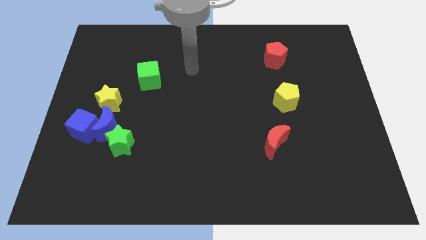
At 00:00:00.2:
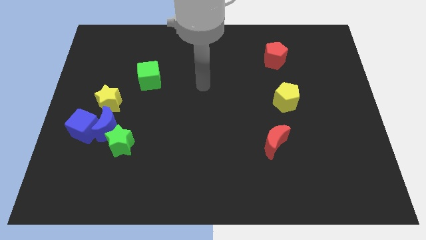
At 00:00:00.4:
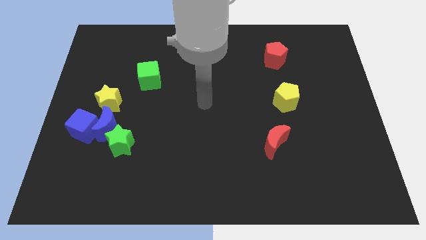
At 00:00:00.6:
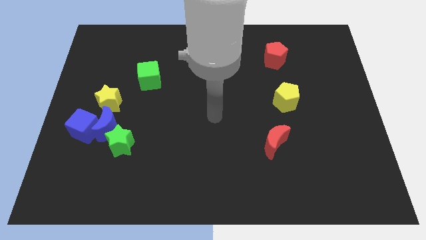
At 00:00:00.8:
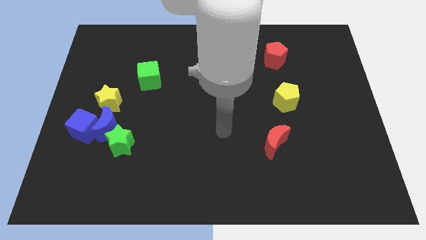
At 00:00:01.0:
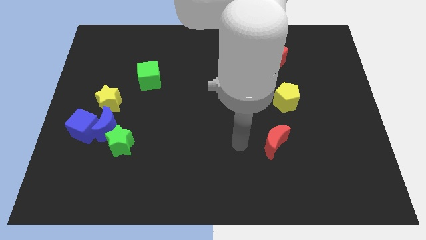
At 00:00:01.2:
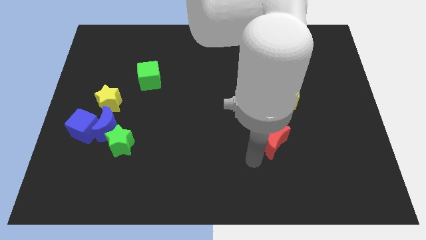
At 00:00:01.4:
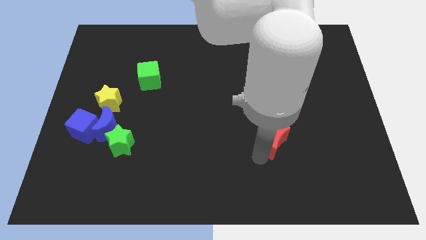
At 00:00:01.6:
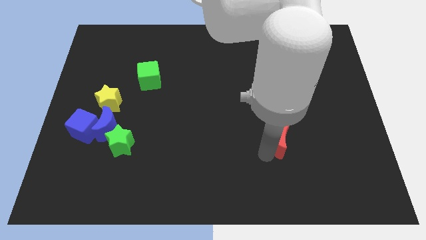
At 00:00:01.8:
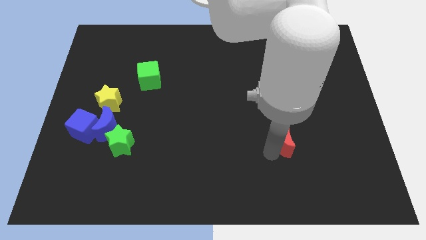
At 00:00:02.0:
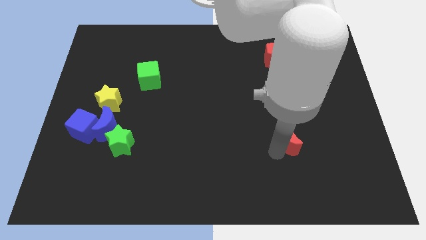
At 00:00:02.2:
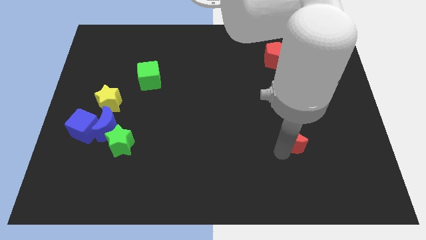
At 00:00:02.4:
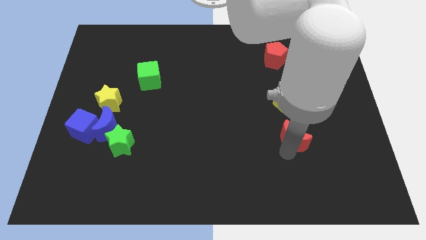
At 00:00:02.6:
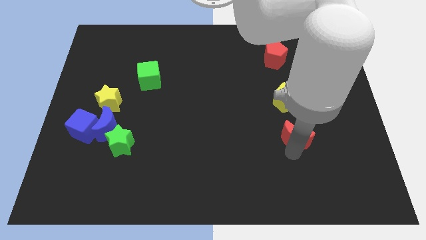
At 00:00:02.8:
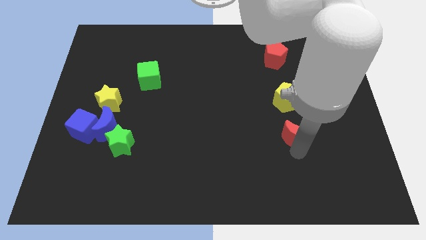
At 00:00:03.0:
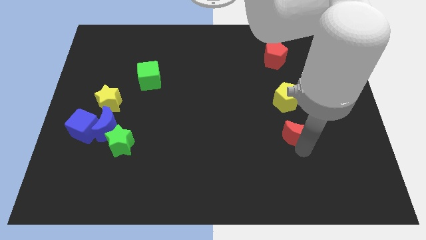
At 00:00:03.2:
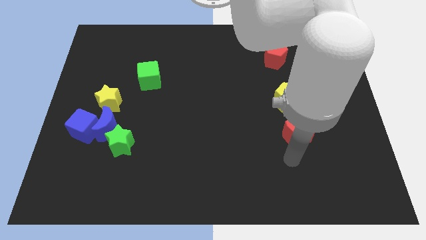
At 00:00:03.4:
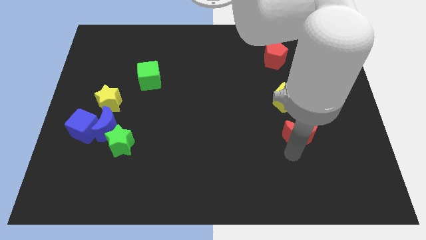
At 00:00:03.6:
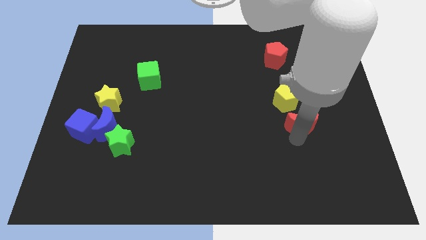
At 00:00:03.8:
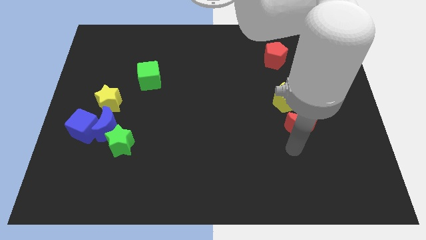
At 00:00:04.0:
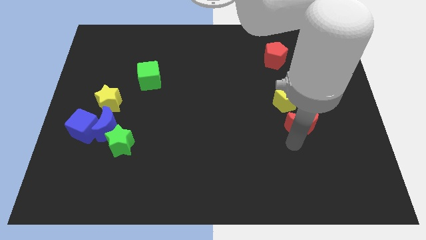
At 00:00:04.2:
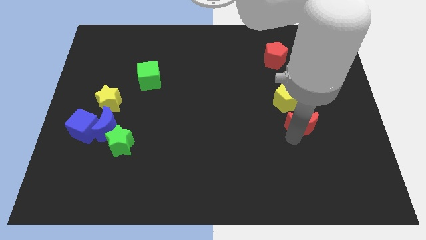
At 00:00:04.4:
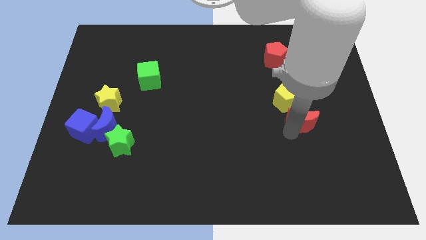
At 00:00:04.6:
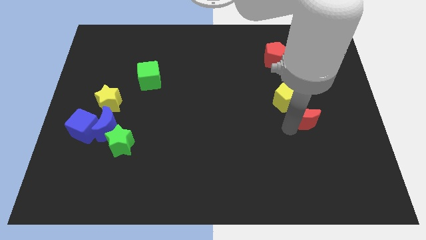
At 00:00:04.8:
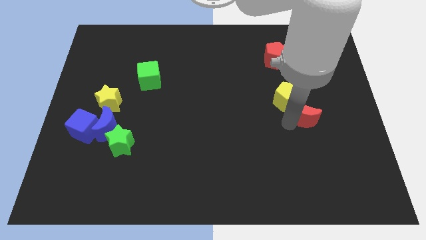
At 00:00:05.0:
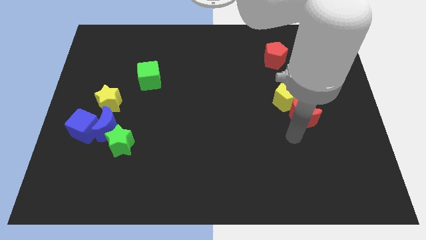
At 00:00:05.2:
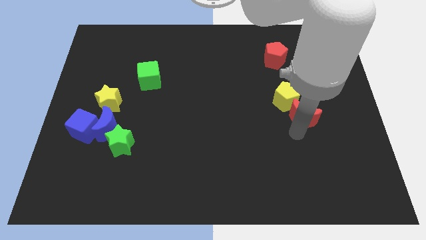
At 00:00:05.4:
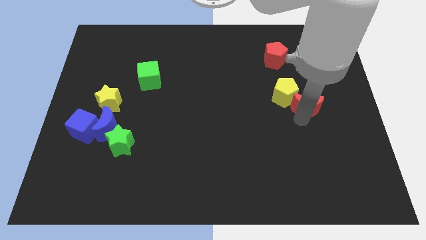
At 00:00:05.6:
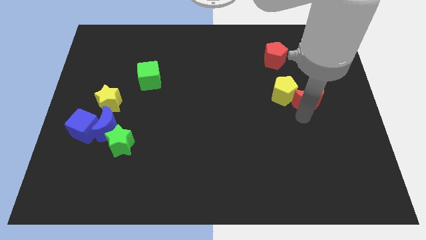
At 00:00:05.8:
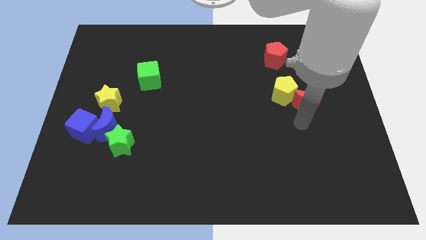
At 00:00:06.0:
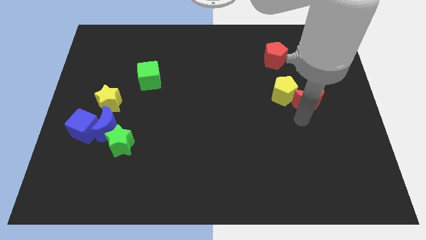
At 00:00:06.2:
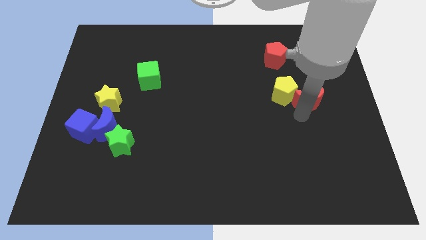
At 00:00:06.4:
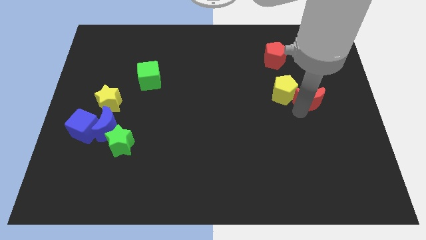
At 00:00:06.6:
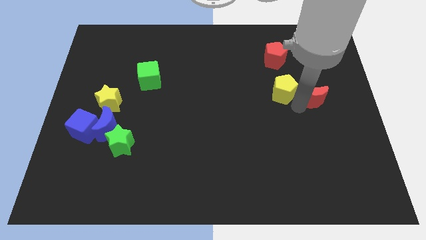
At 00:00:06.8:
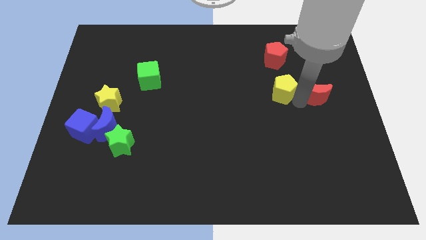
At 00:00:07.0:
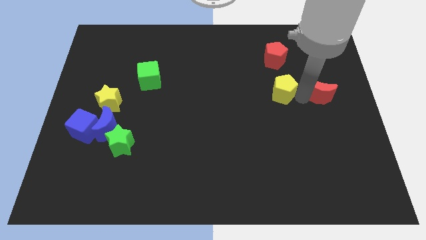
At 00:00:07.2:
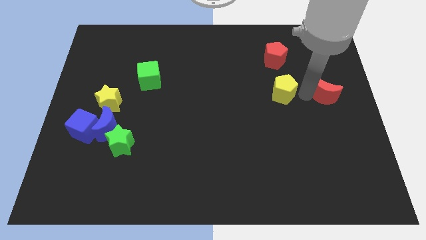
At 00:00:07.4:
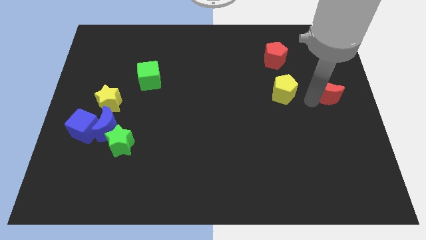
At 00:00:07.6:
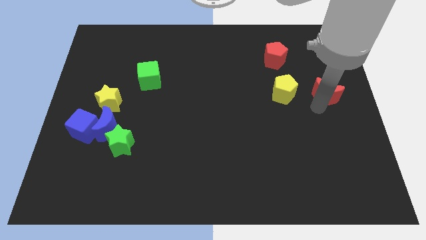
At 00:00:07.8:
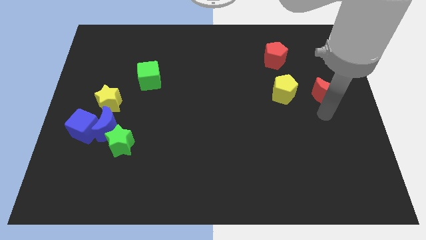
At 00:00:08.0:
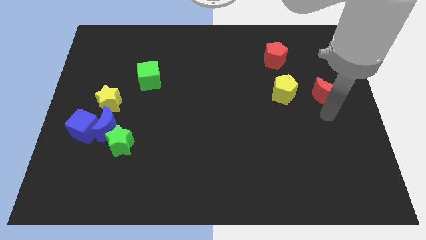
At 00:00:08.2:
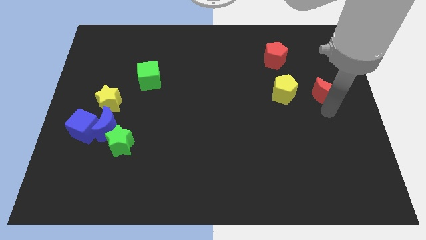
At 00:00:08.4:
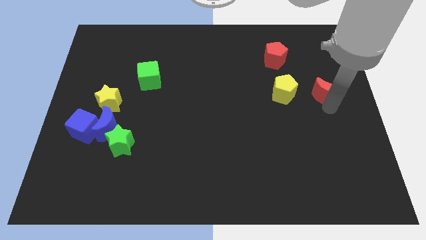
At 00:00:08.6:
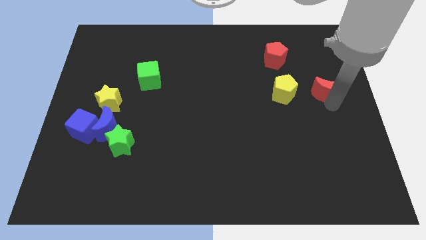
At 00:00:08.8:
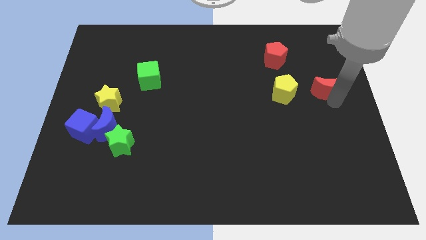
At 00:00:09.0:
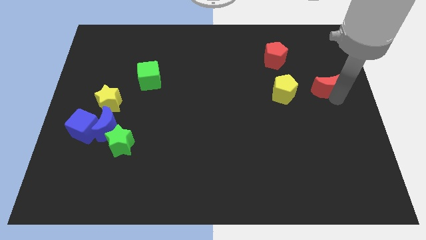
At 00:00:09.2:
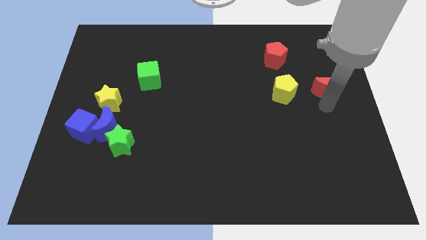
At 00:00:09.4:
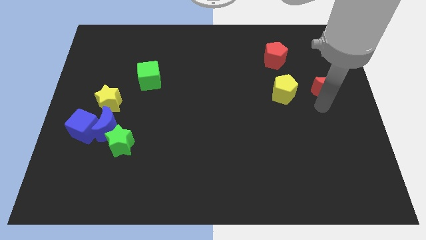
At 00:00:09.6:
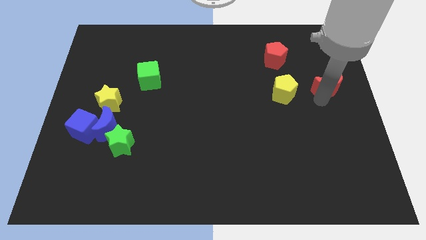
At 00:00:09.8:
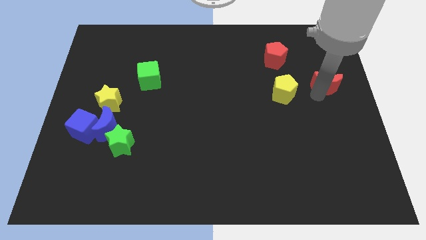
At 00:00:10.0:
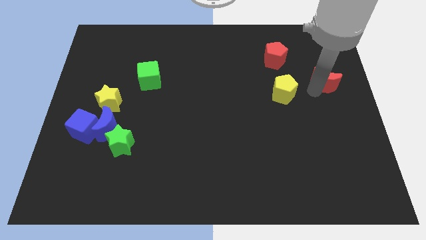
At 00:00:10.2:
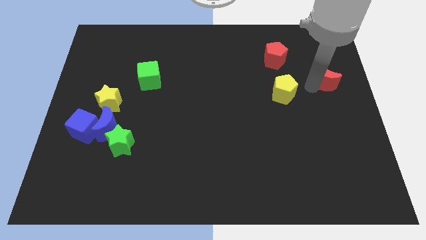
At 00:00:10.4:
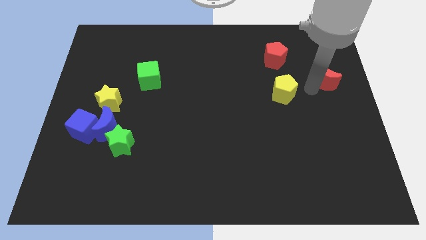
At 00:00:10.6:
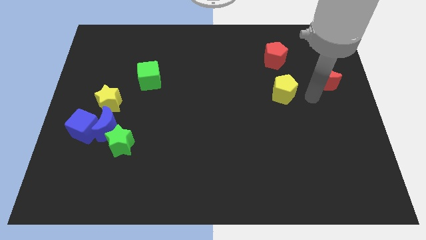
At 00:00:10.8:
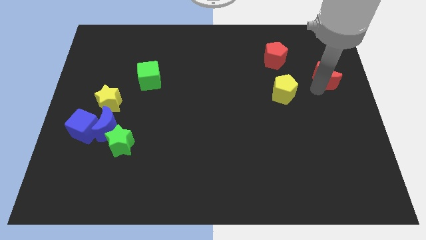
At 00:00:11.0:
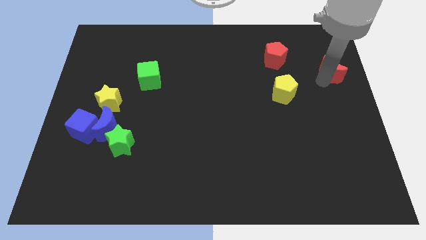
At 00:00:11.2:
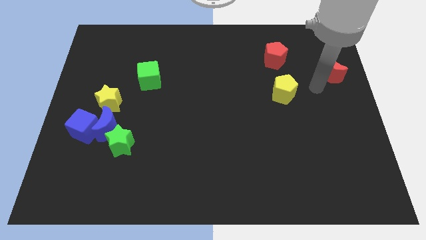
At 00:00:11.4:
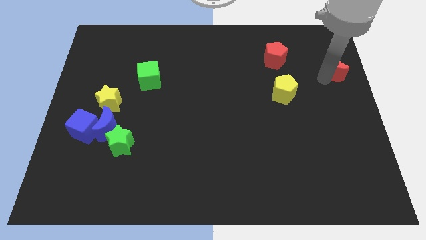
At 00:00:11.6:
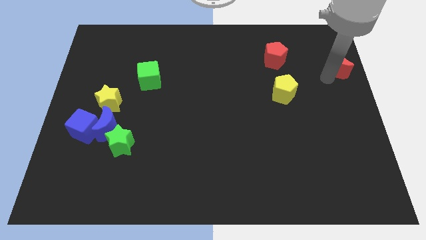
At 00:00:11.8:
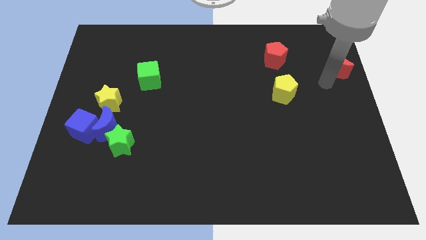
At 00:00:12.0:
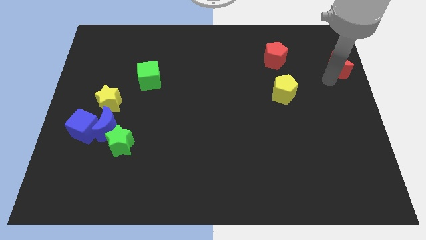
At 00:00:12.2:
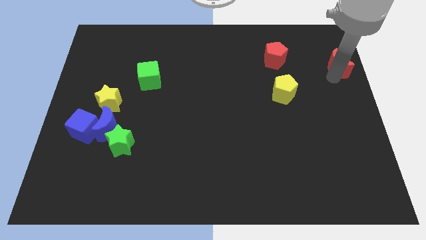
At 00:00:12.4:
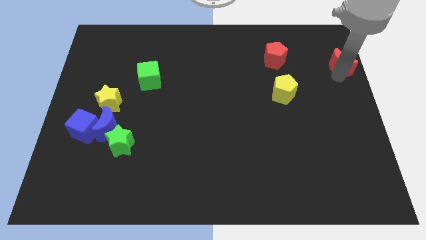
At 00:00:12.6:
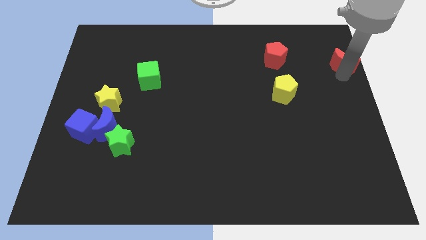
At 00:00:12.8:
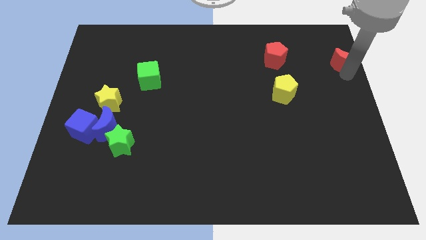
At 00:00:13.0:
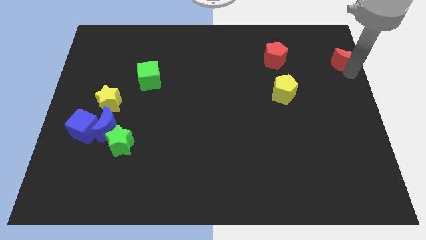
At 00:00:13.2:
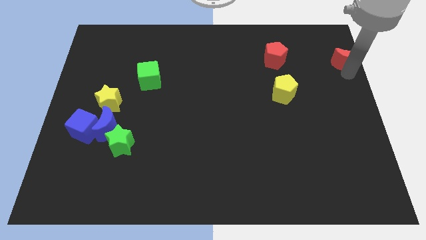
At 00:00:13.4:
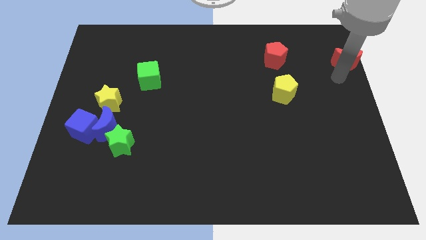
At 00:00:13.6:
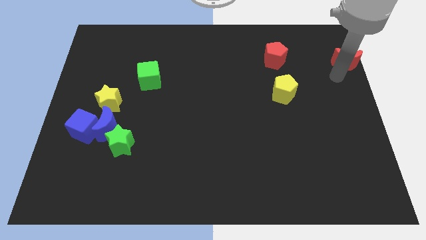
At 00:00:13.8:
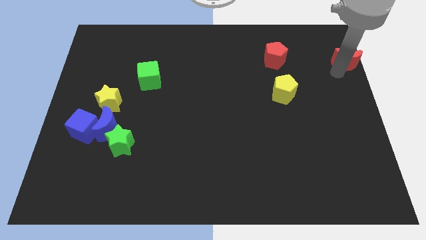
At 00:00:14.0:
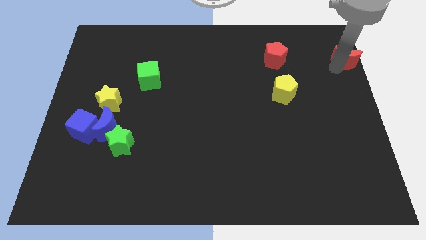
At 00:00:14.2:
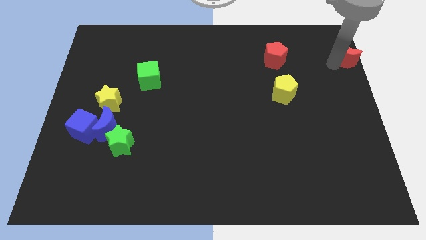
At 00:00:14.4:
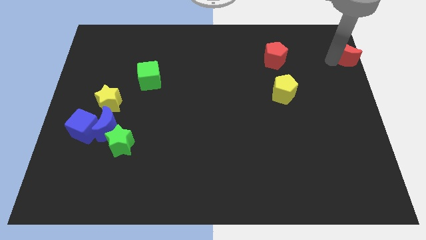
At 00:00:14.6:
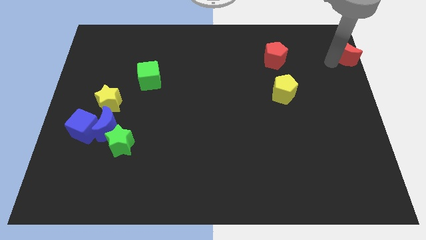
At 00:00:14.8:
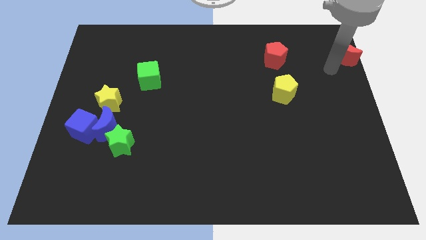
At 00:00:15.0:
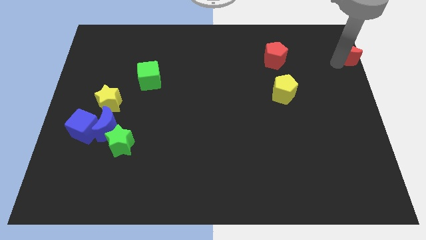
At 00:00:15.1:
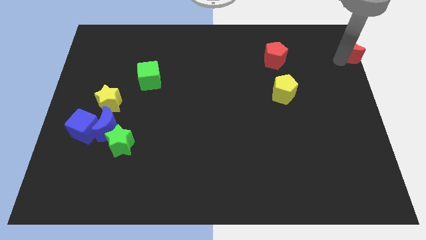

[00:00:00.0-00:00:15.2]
move the red moon to the top right of the board
